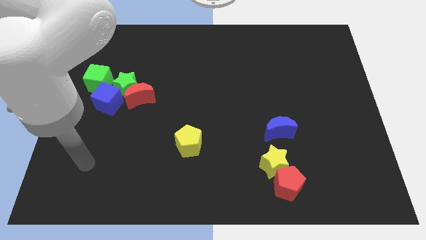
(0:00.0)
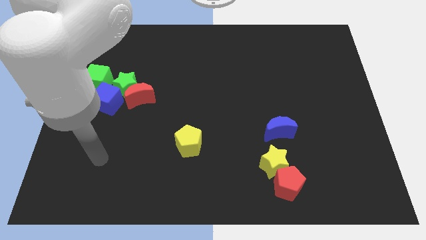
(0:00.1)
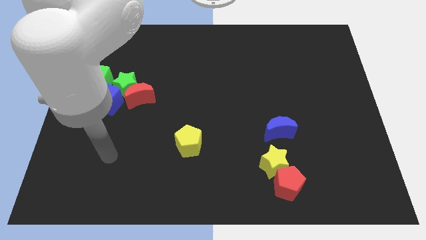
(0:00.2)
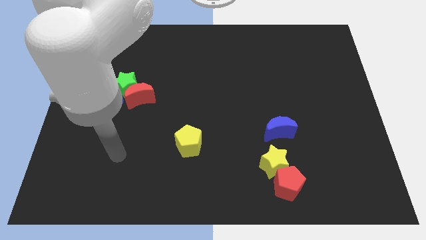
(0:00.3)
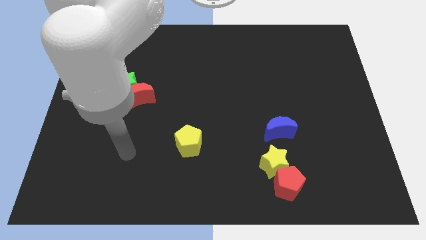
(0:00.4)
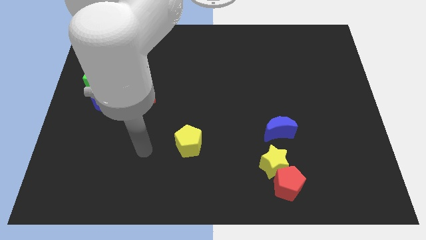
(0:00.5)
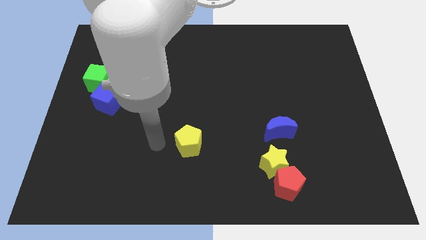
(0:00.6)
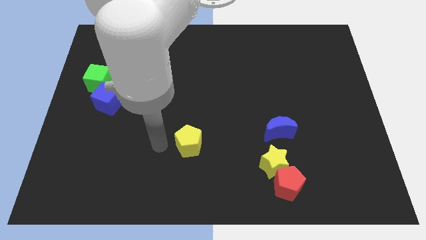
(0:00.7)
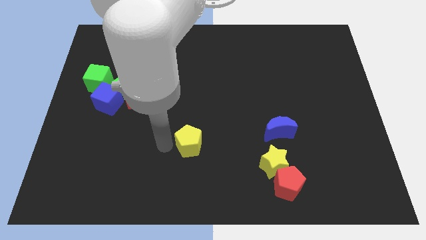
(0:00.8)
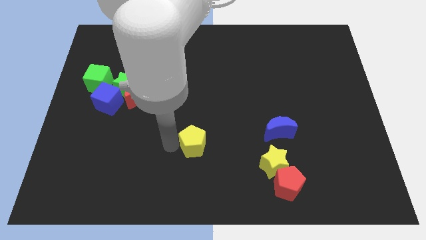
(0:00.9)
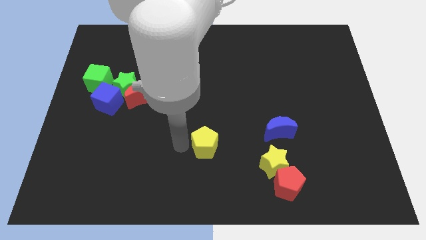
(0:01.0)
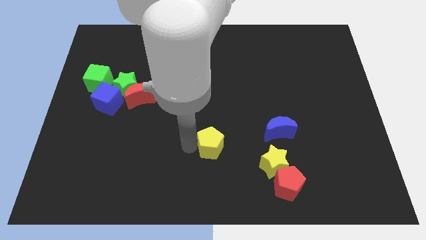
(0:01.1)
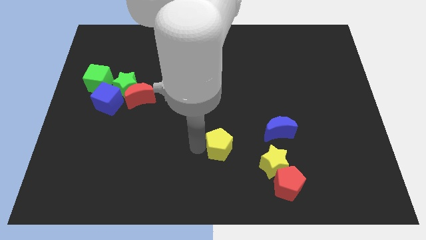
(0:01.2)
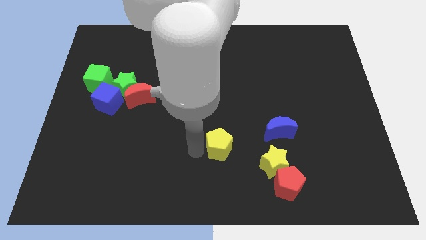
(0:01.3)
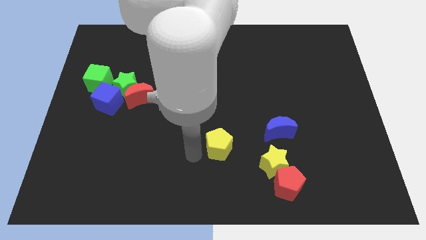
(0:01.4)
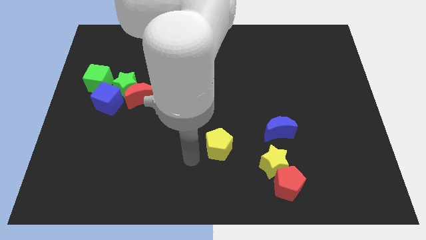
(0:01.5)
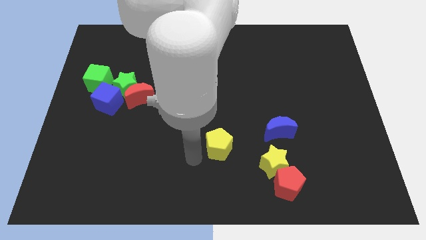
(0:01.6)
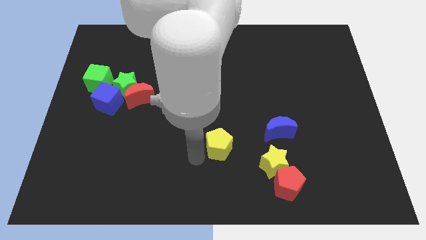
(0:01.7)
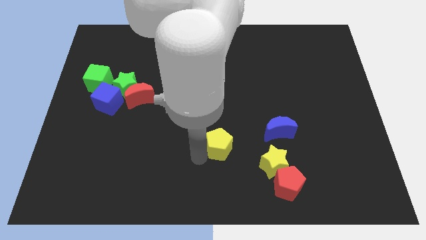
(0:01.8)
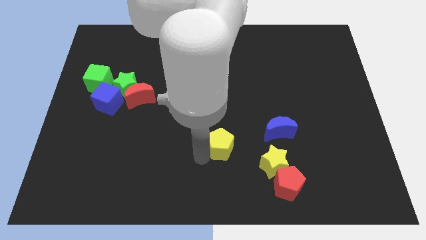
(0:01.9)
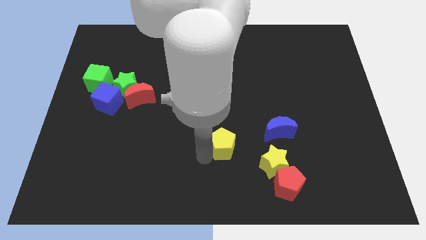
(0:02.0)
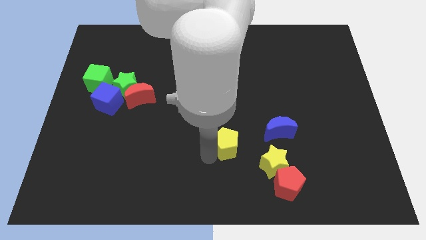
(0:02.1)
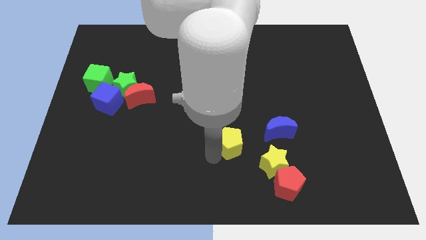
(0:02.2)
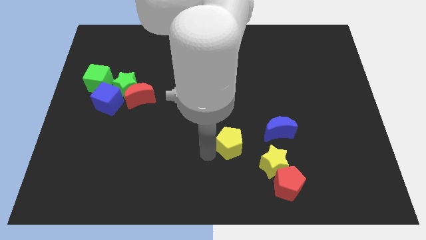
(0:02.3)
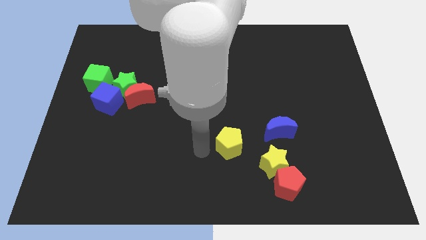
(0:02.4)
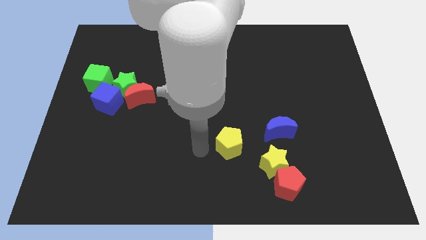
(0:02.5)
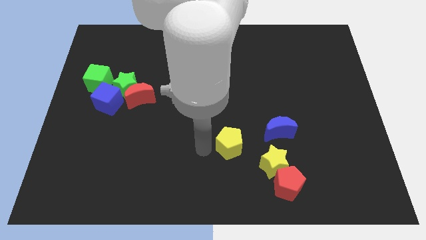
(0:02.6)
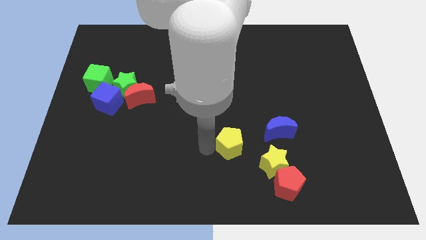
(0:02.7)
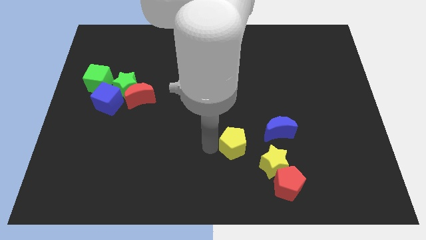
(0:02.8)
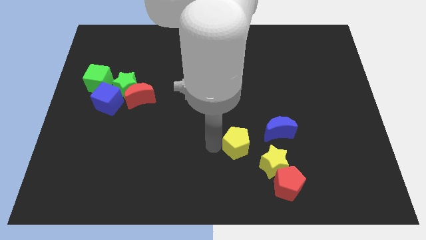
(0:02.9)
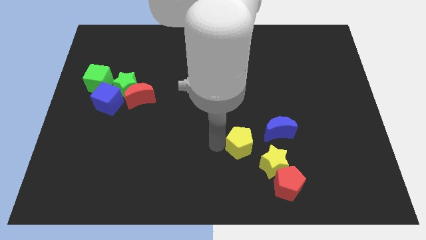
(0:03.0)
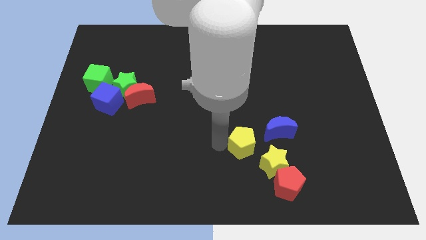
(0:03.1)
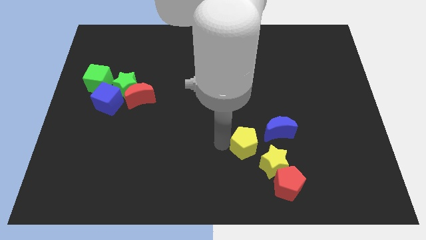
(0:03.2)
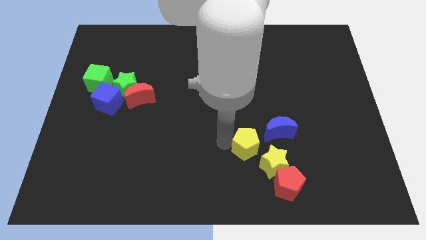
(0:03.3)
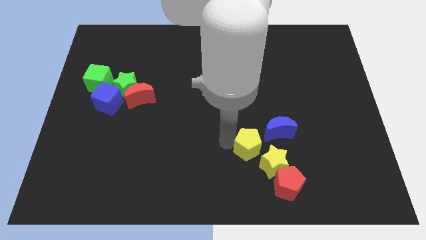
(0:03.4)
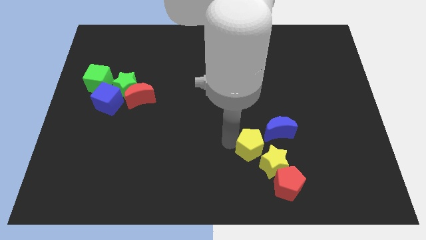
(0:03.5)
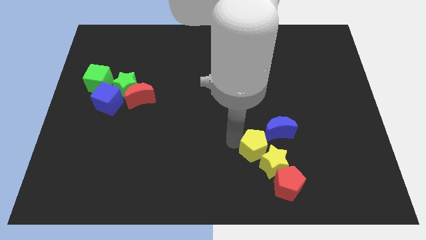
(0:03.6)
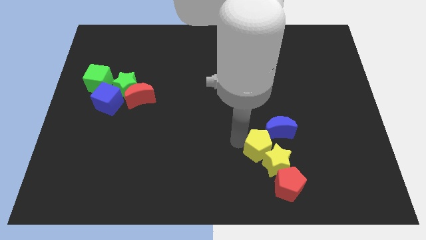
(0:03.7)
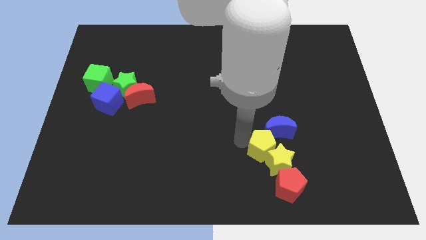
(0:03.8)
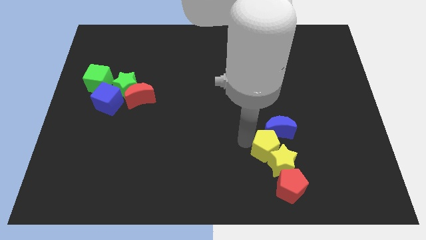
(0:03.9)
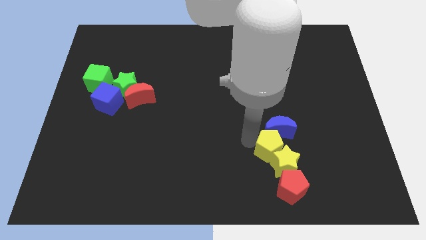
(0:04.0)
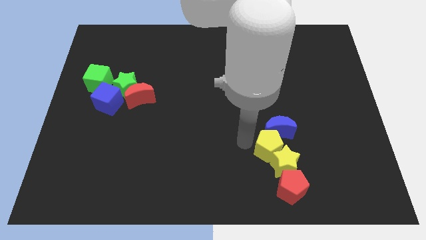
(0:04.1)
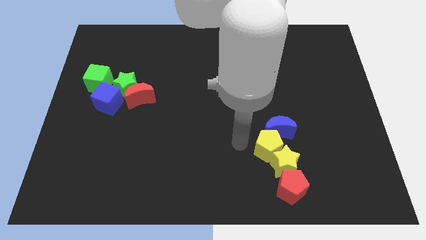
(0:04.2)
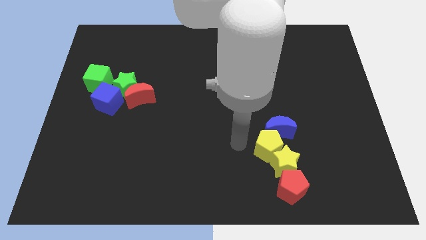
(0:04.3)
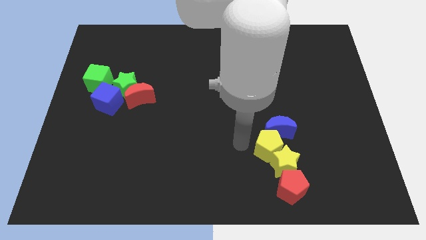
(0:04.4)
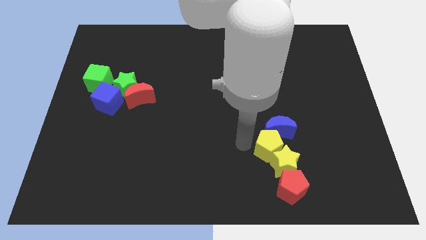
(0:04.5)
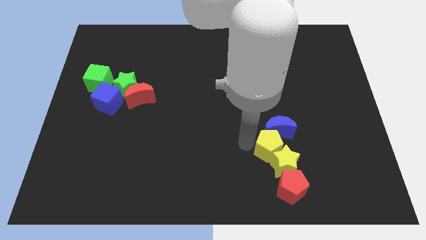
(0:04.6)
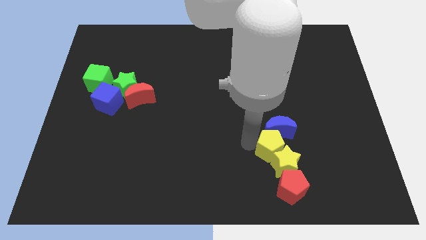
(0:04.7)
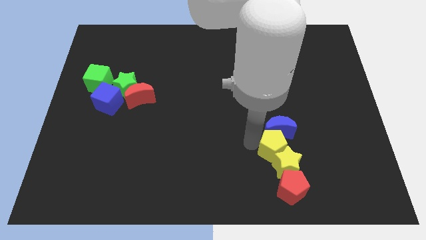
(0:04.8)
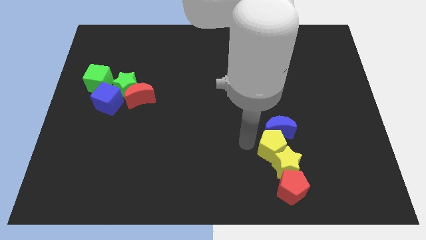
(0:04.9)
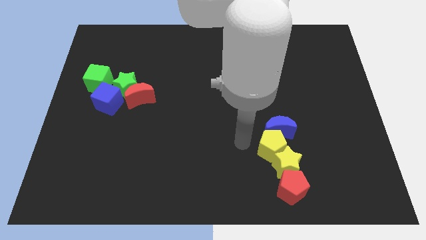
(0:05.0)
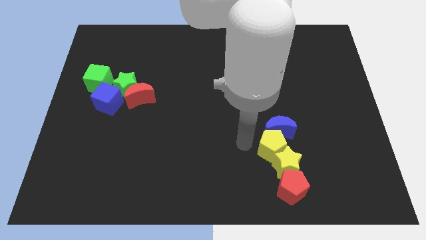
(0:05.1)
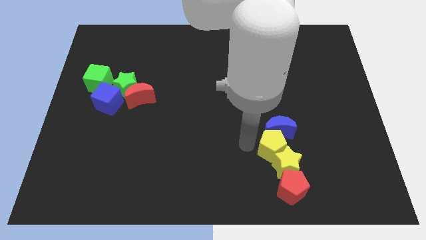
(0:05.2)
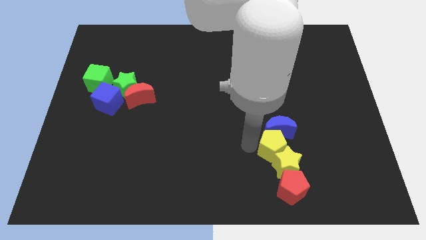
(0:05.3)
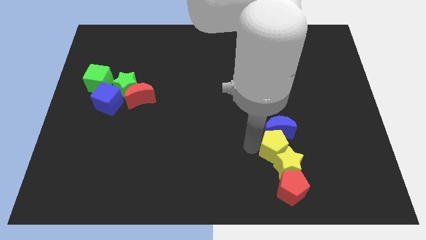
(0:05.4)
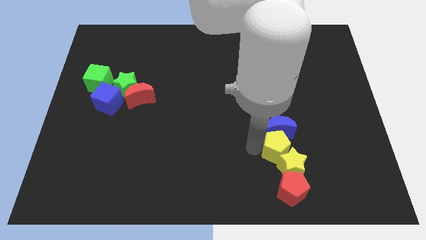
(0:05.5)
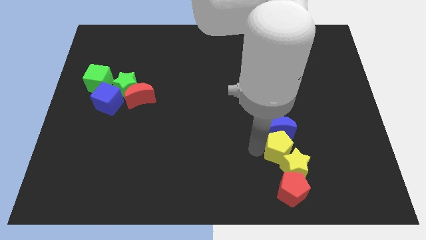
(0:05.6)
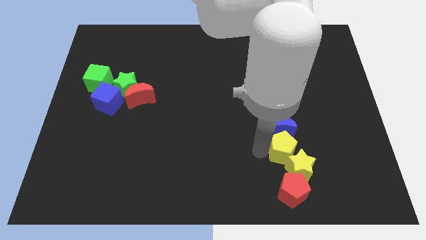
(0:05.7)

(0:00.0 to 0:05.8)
slide the yellow pentagon right

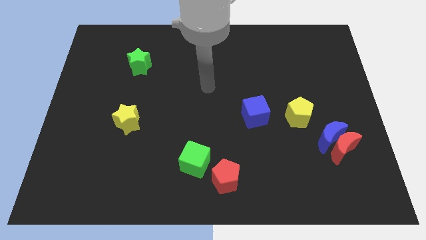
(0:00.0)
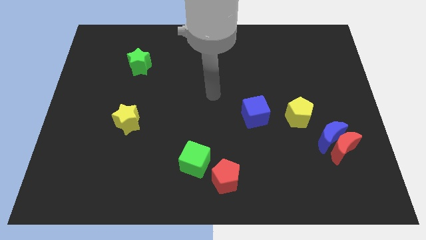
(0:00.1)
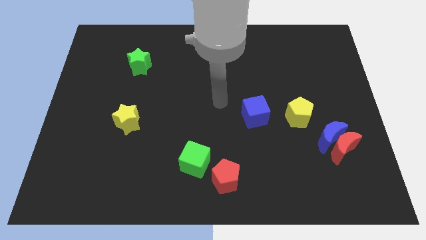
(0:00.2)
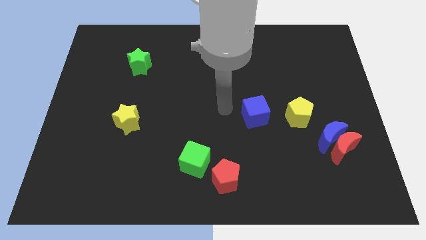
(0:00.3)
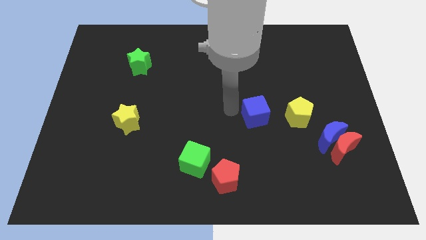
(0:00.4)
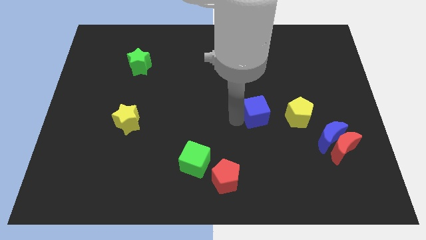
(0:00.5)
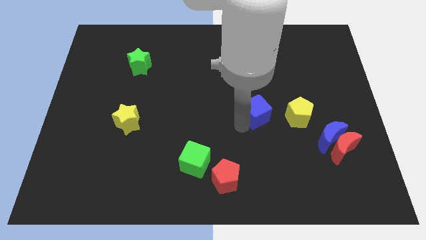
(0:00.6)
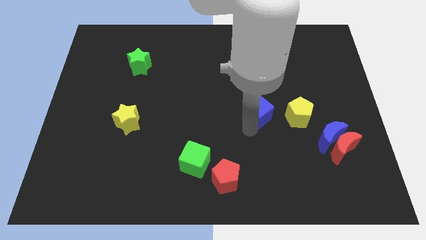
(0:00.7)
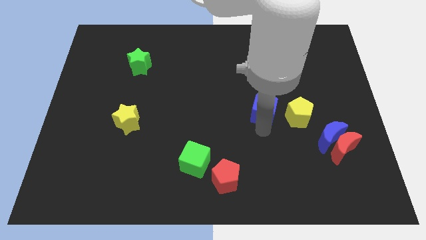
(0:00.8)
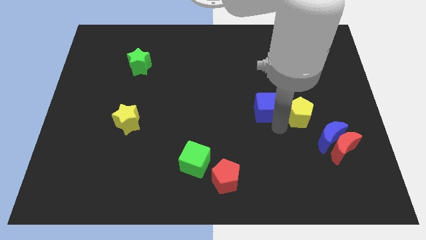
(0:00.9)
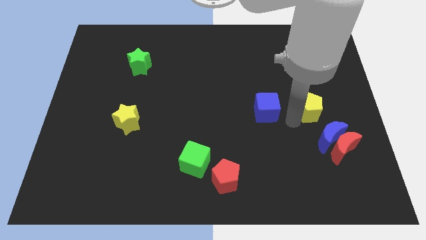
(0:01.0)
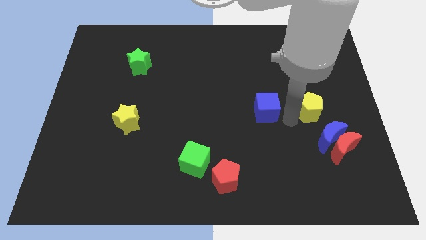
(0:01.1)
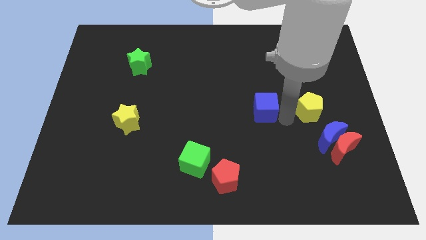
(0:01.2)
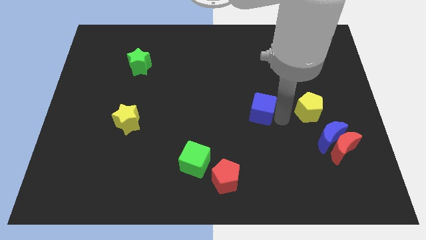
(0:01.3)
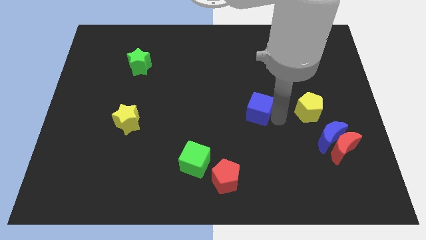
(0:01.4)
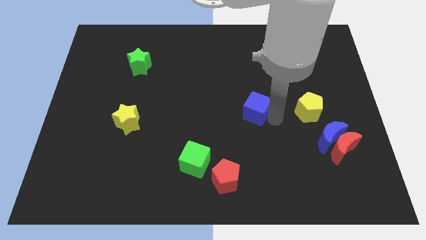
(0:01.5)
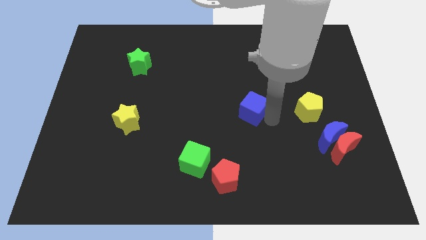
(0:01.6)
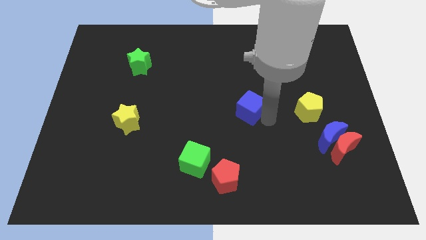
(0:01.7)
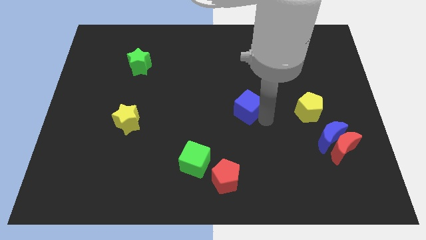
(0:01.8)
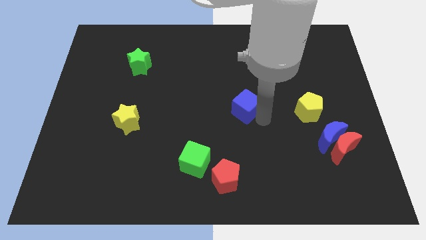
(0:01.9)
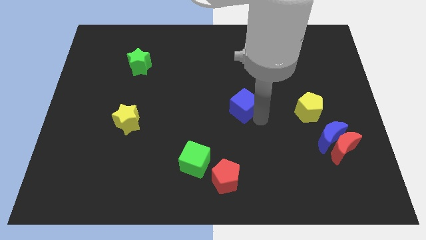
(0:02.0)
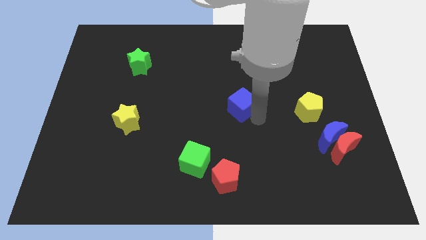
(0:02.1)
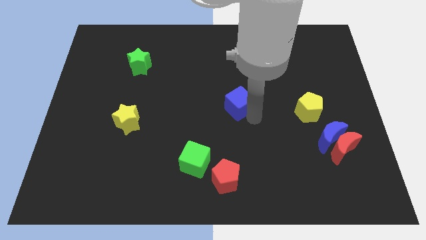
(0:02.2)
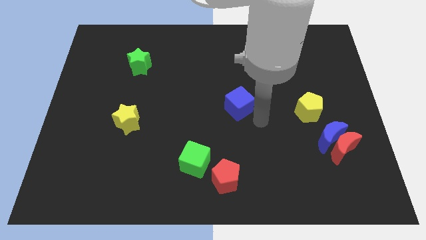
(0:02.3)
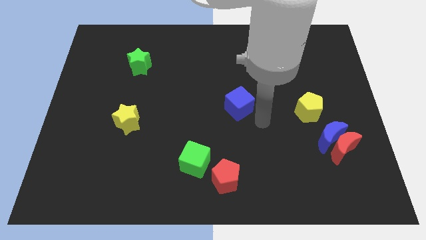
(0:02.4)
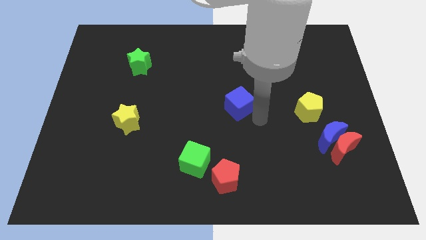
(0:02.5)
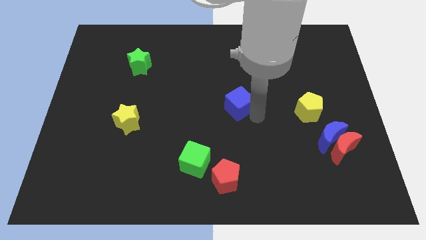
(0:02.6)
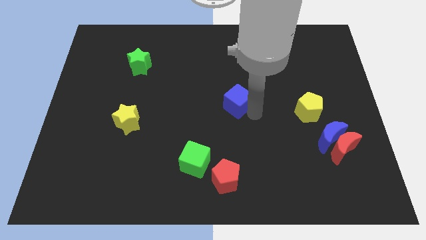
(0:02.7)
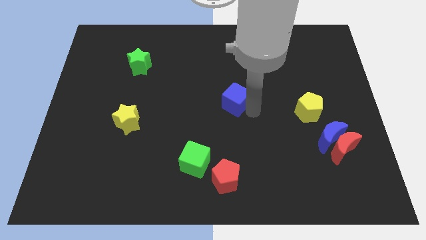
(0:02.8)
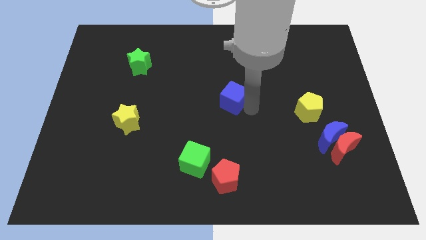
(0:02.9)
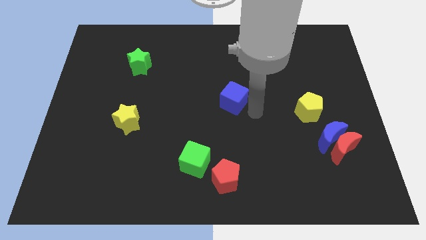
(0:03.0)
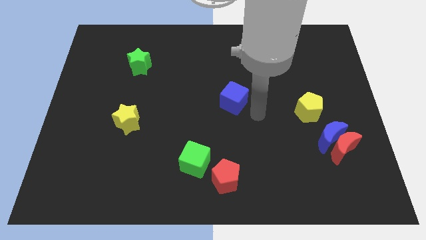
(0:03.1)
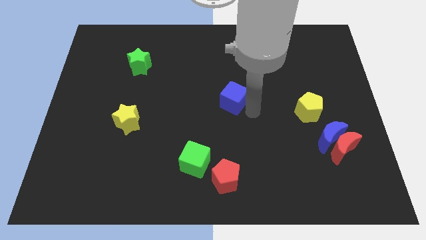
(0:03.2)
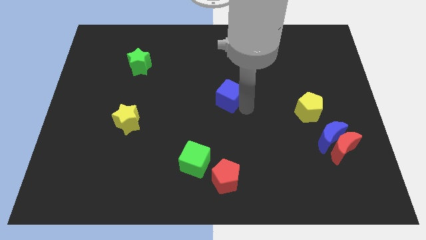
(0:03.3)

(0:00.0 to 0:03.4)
slide the blue cube slightly upwards and then to the left
